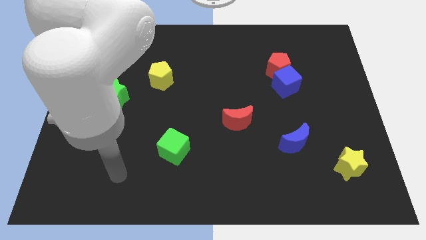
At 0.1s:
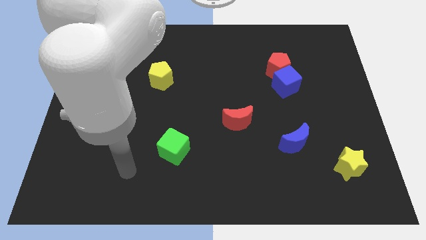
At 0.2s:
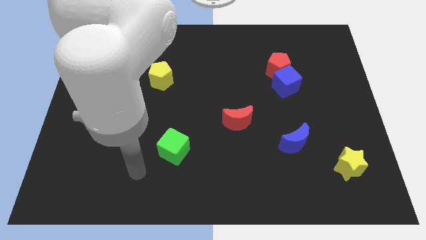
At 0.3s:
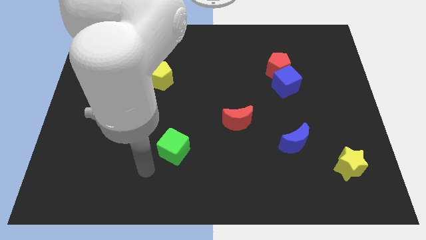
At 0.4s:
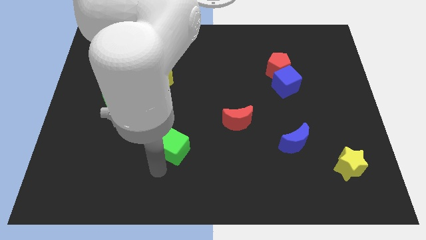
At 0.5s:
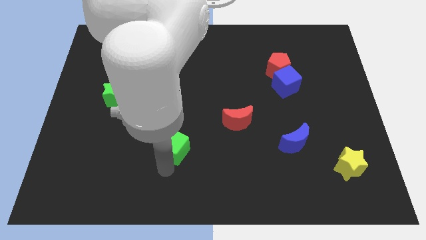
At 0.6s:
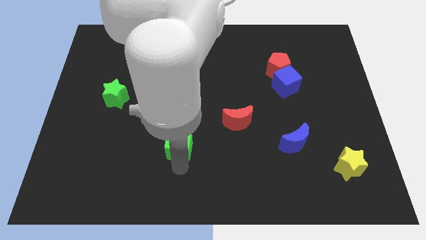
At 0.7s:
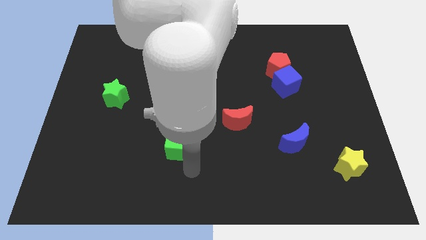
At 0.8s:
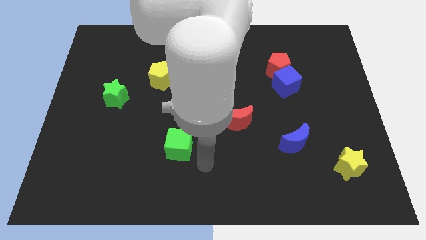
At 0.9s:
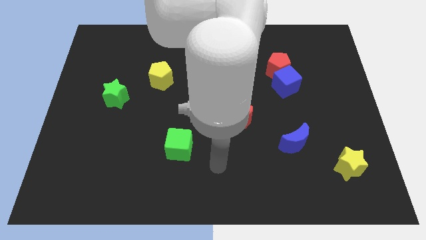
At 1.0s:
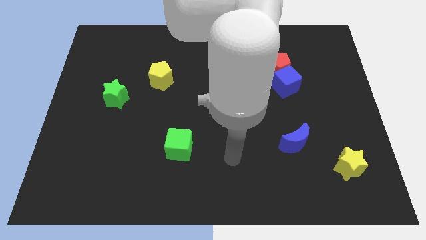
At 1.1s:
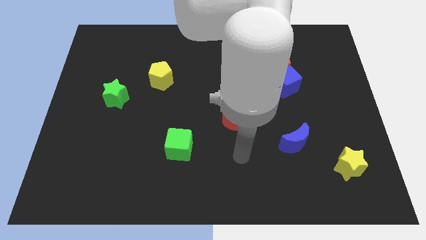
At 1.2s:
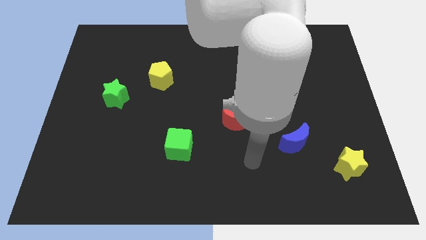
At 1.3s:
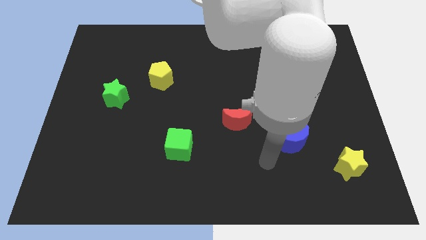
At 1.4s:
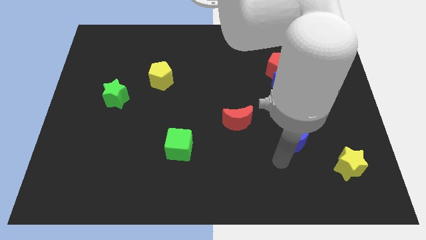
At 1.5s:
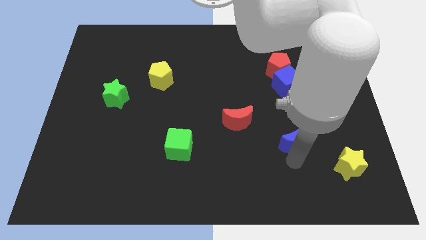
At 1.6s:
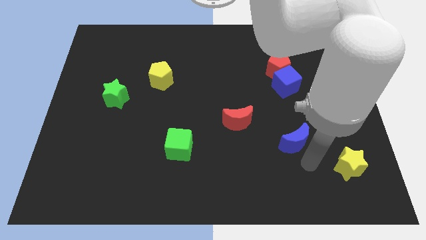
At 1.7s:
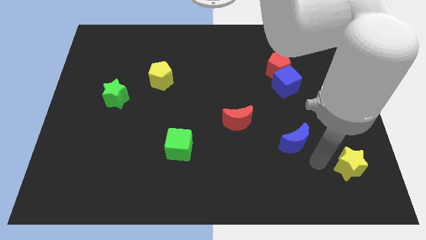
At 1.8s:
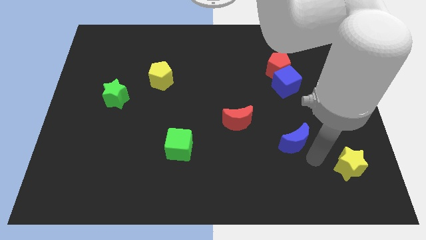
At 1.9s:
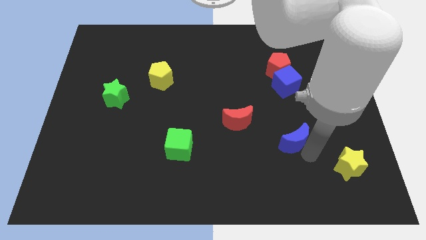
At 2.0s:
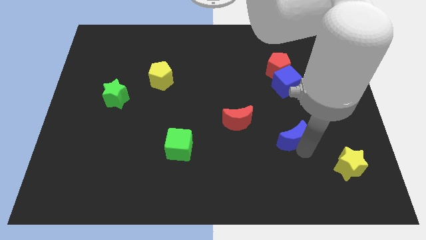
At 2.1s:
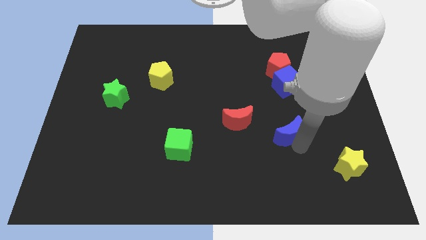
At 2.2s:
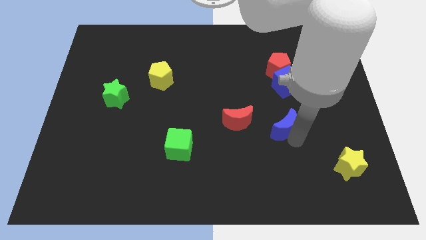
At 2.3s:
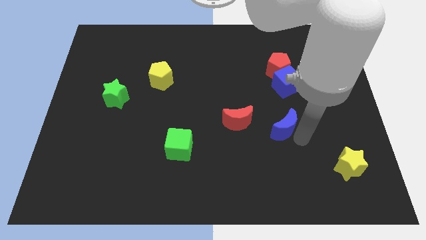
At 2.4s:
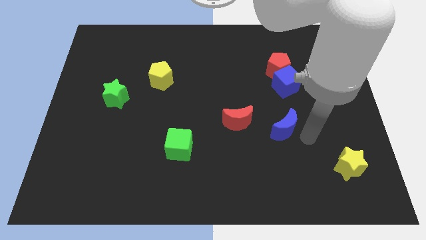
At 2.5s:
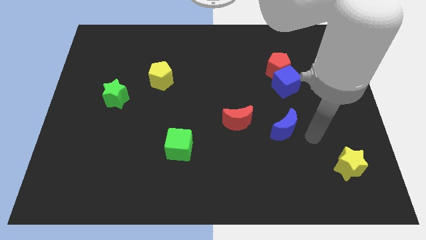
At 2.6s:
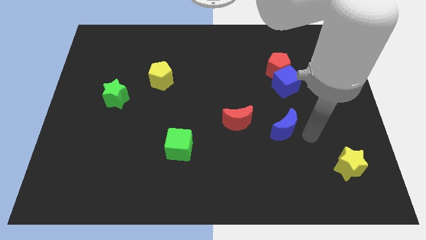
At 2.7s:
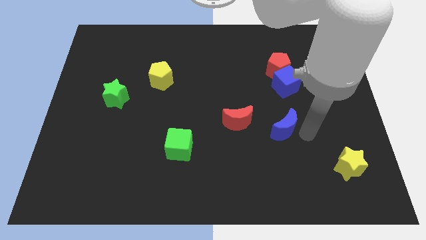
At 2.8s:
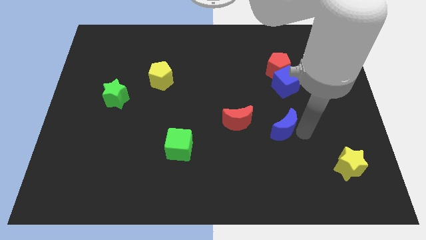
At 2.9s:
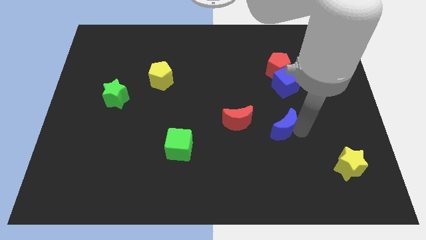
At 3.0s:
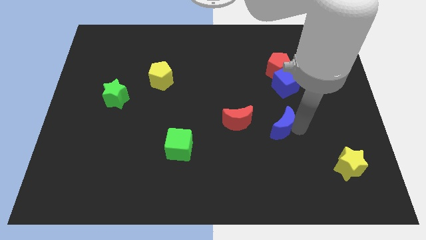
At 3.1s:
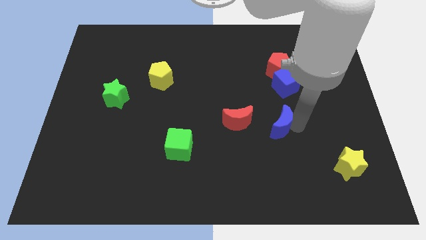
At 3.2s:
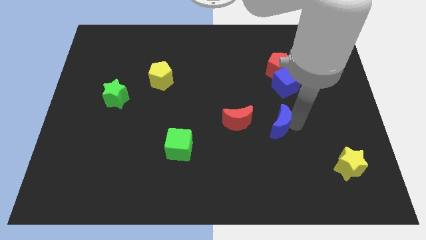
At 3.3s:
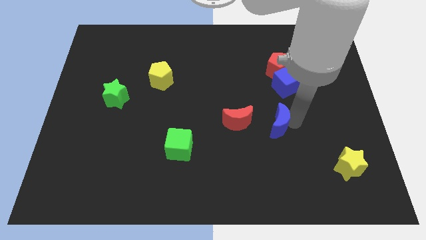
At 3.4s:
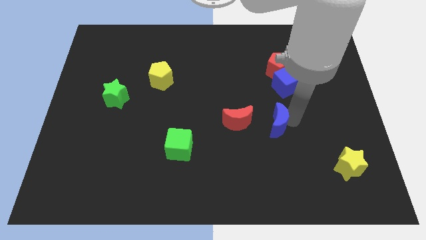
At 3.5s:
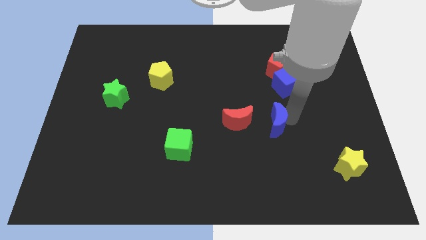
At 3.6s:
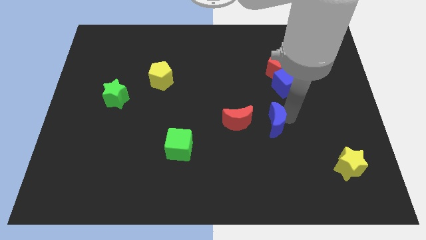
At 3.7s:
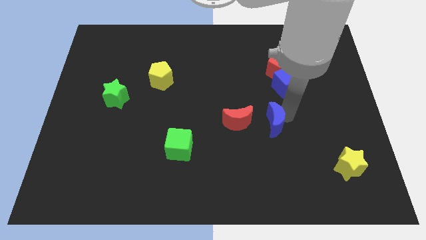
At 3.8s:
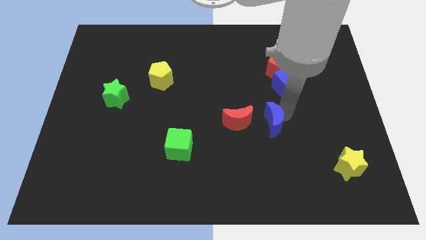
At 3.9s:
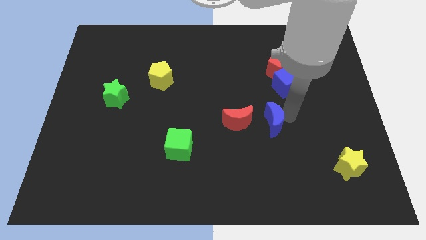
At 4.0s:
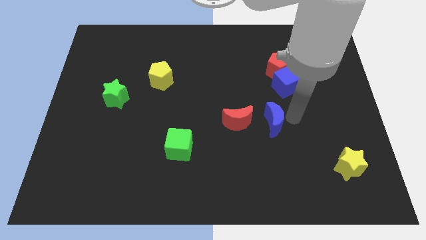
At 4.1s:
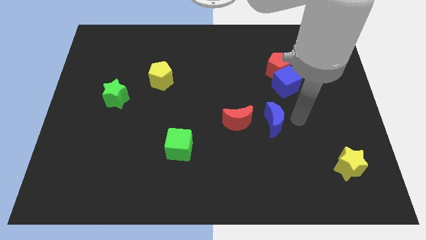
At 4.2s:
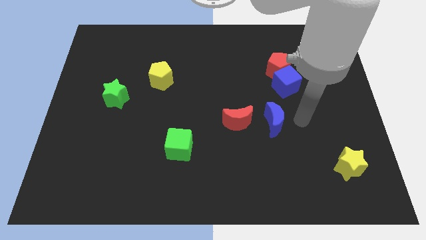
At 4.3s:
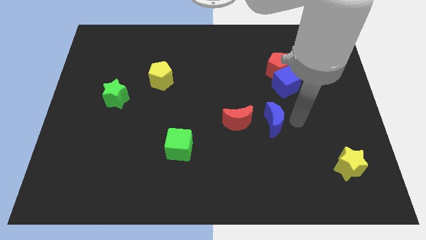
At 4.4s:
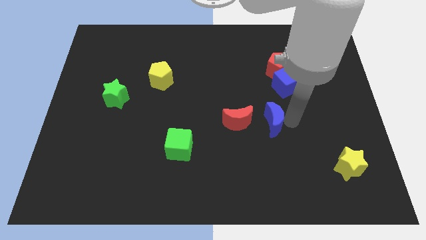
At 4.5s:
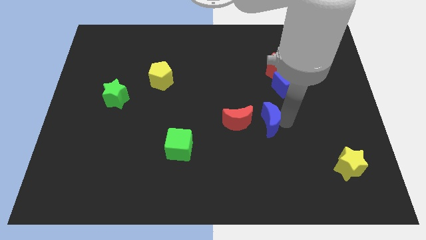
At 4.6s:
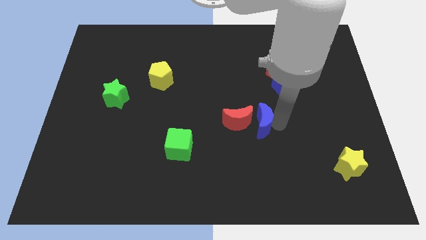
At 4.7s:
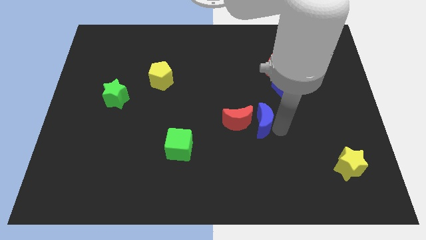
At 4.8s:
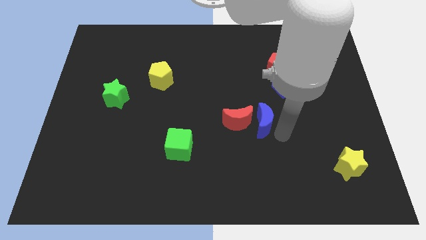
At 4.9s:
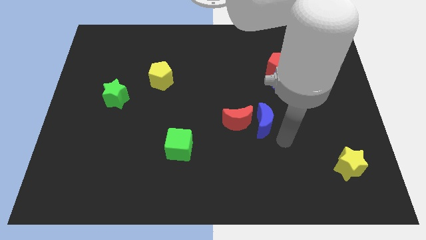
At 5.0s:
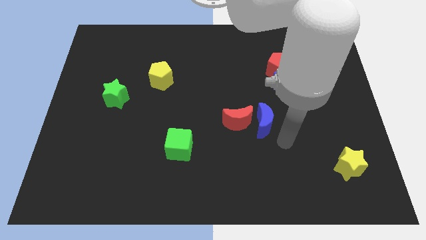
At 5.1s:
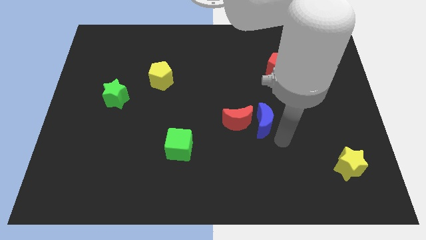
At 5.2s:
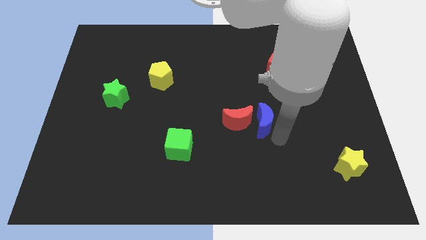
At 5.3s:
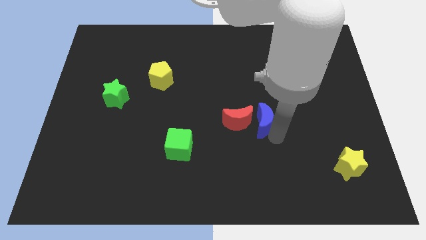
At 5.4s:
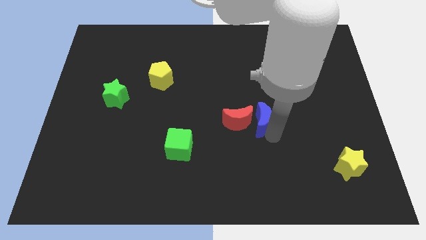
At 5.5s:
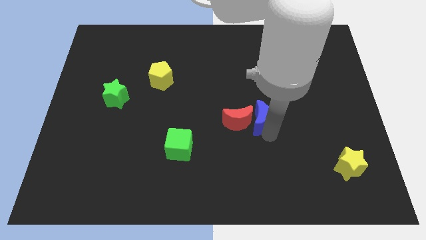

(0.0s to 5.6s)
move the blue moon to the middle

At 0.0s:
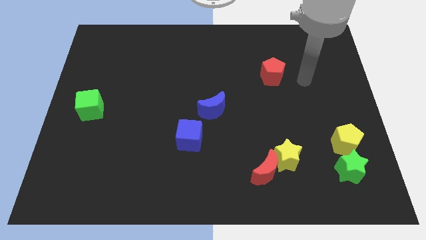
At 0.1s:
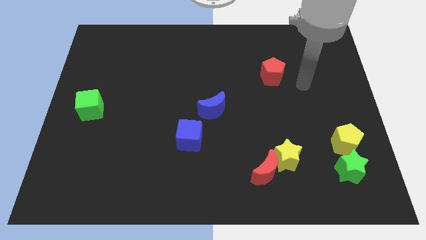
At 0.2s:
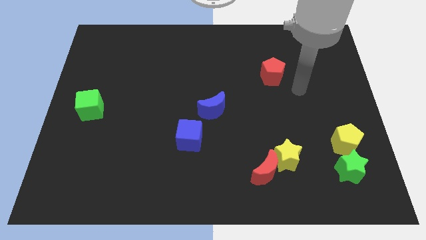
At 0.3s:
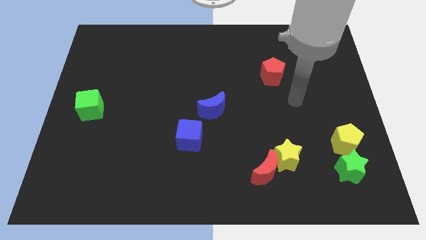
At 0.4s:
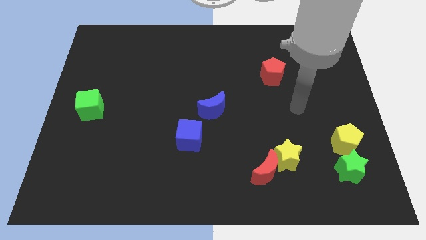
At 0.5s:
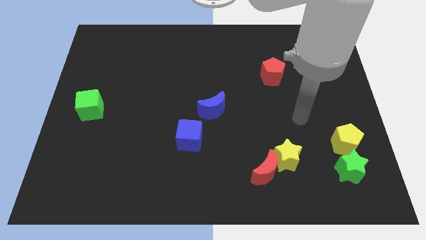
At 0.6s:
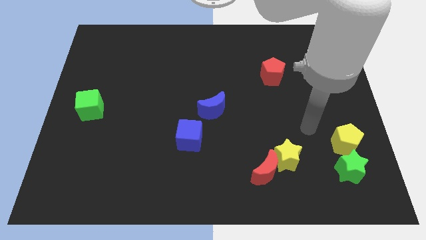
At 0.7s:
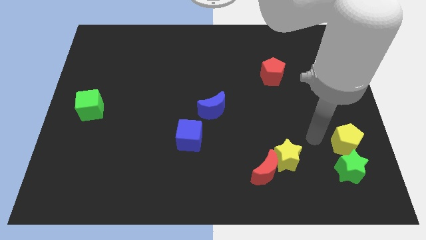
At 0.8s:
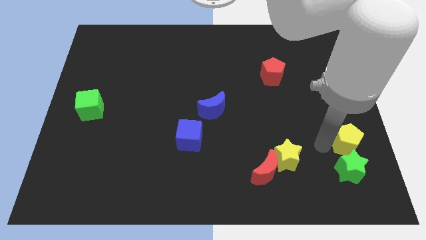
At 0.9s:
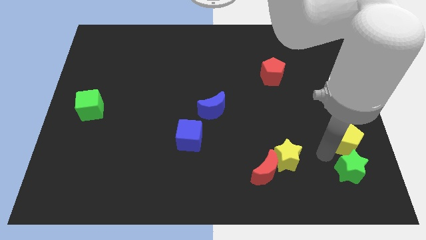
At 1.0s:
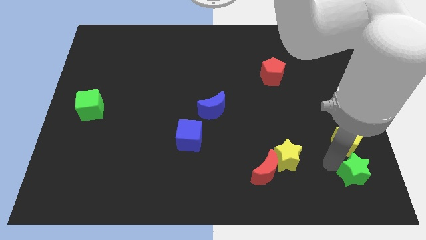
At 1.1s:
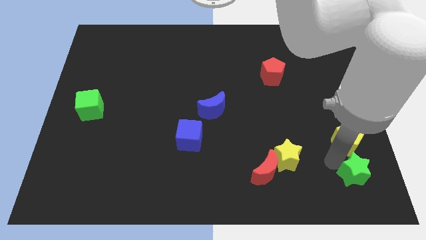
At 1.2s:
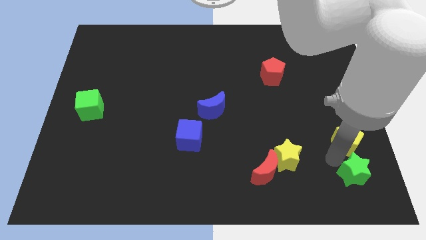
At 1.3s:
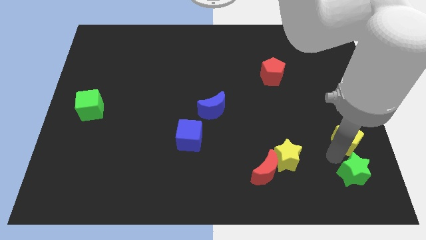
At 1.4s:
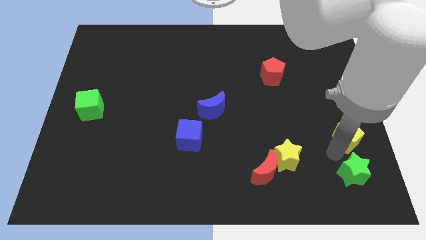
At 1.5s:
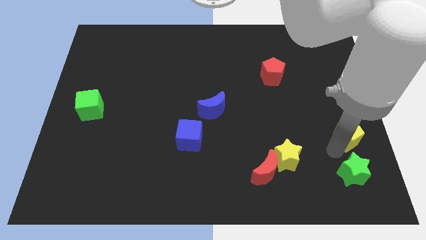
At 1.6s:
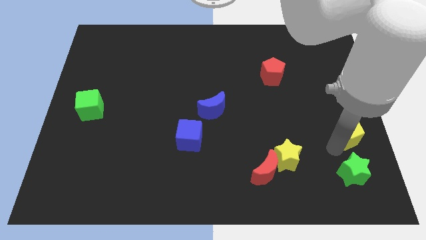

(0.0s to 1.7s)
push the yellow pentagon to the right side of the board
